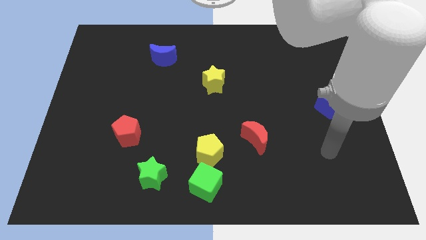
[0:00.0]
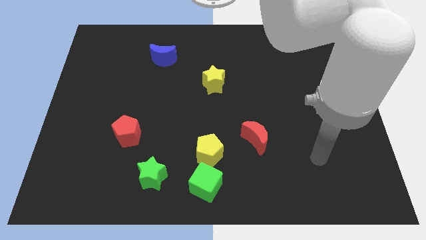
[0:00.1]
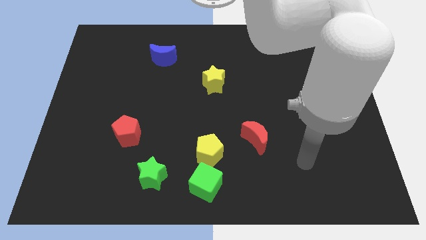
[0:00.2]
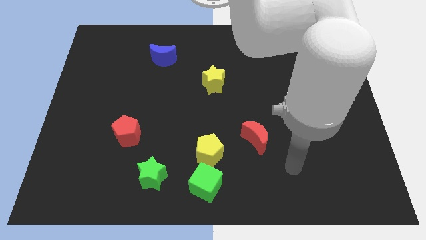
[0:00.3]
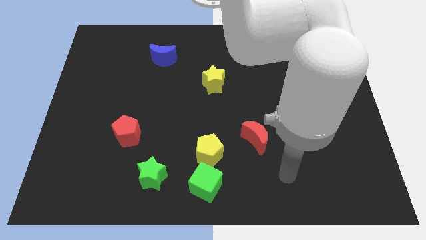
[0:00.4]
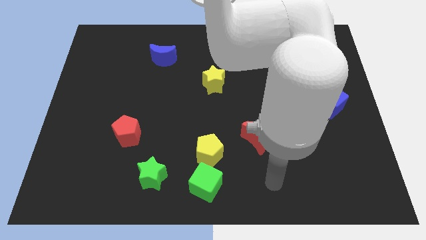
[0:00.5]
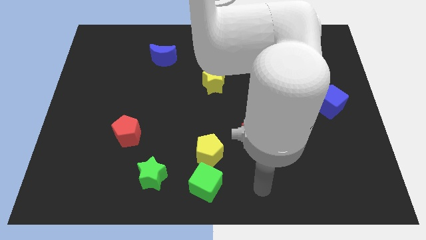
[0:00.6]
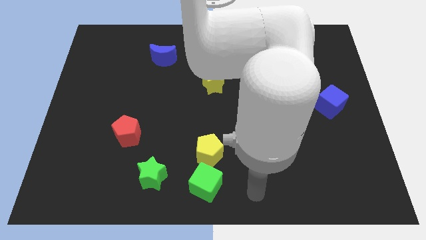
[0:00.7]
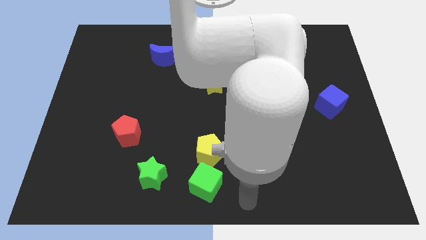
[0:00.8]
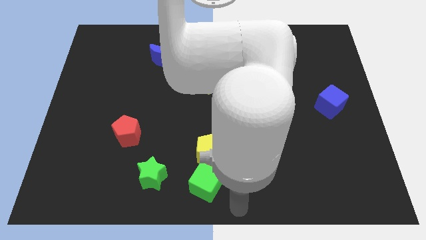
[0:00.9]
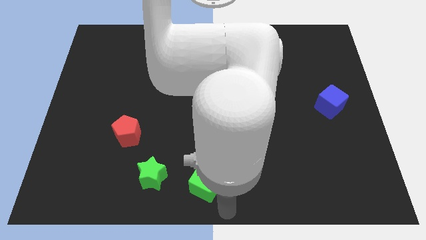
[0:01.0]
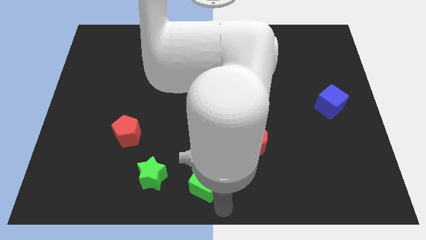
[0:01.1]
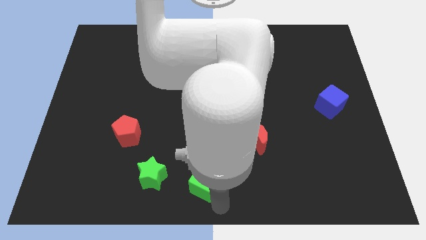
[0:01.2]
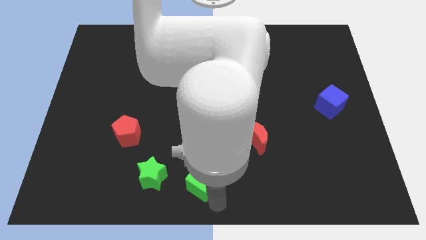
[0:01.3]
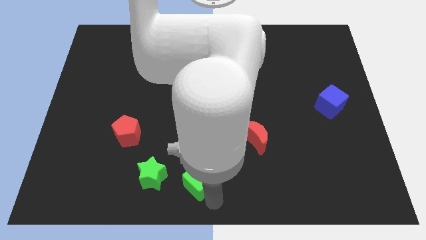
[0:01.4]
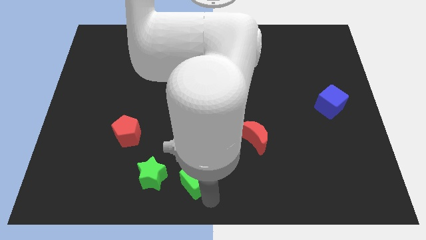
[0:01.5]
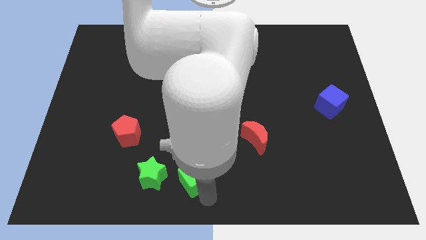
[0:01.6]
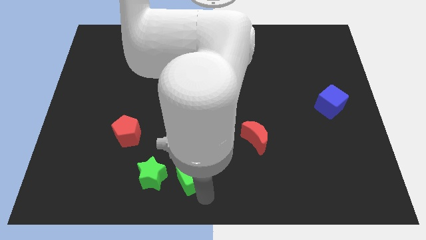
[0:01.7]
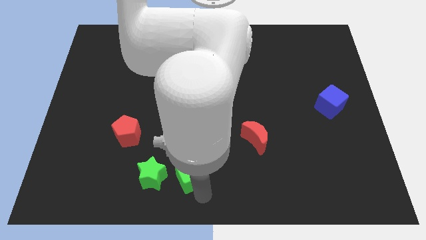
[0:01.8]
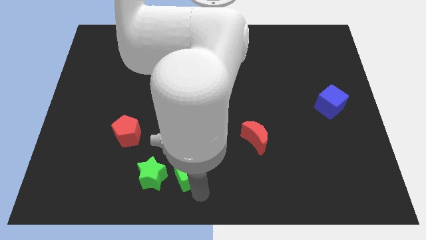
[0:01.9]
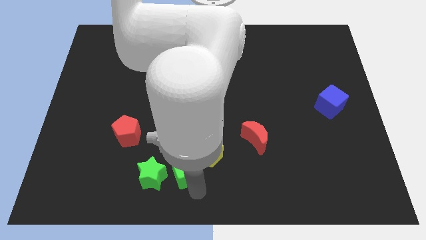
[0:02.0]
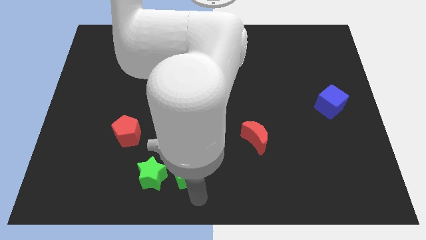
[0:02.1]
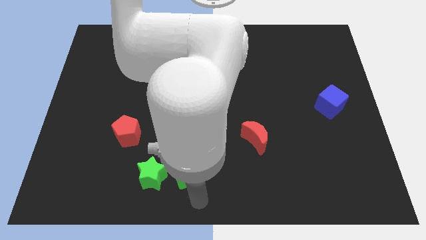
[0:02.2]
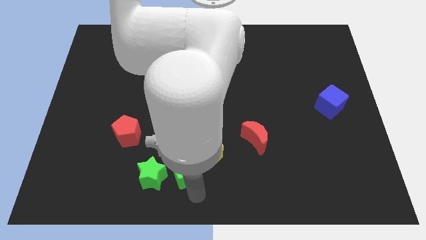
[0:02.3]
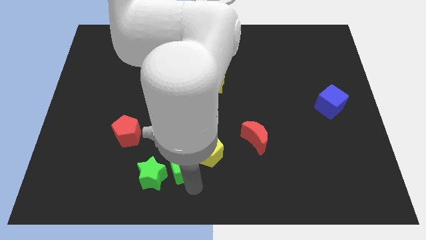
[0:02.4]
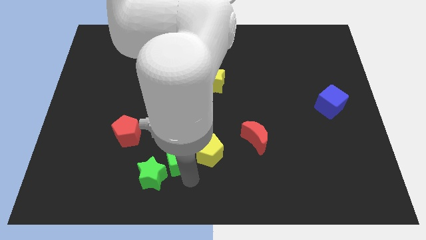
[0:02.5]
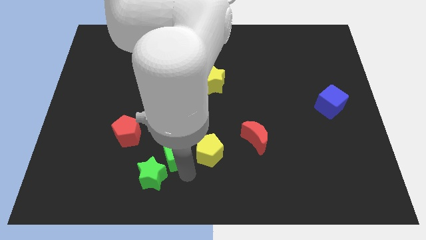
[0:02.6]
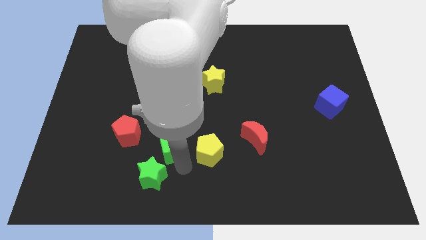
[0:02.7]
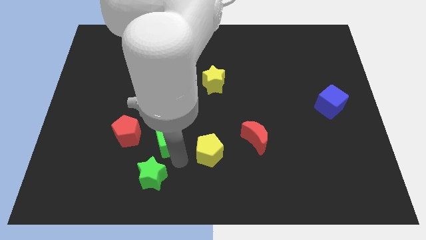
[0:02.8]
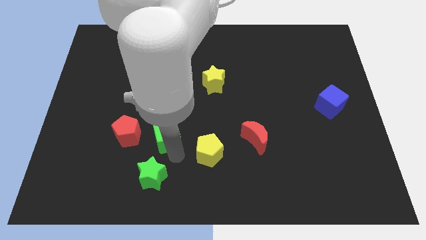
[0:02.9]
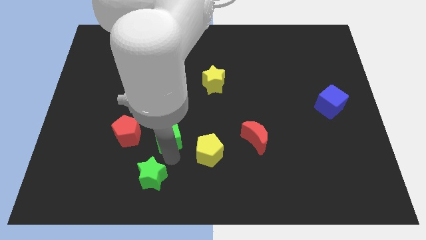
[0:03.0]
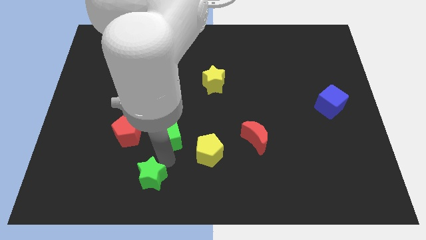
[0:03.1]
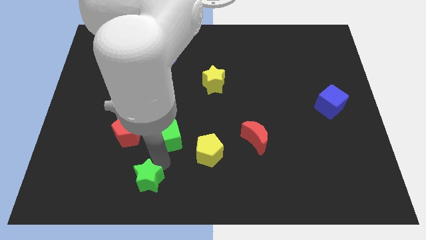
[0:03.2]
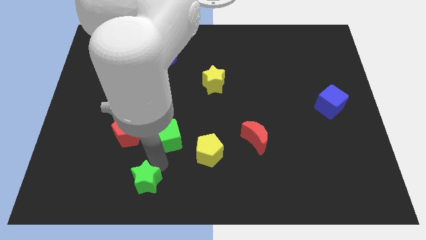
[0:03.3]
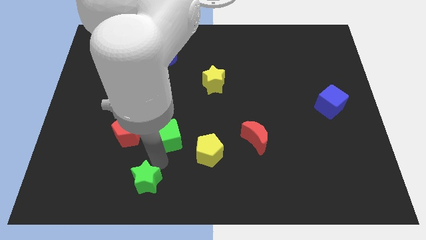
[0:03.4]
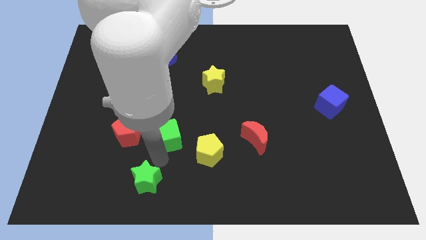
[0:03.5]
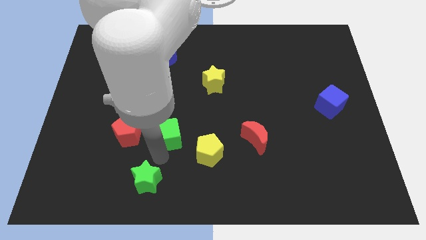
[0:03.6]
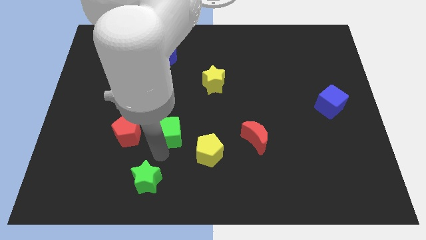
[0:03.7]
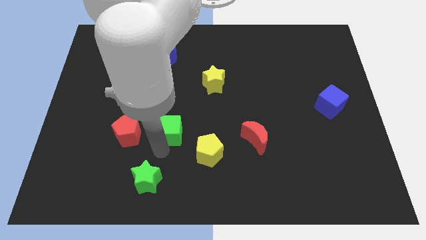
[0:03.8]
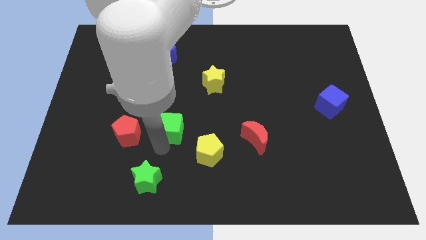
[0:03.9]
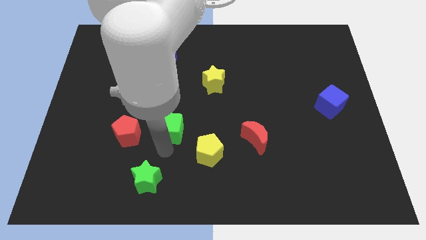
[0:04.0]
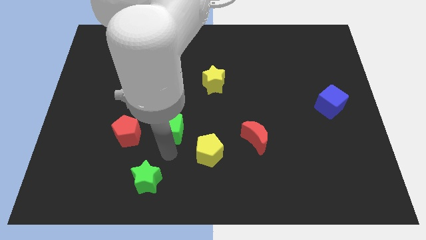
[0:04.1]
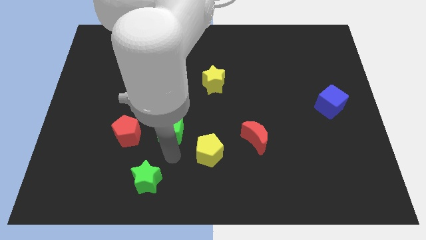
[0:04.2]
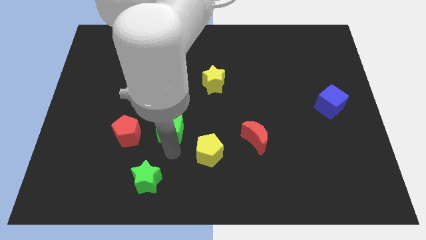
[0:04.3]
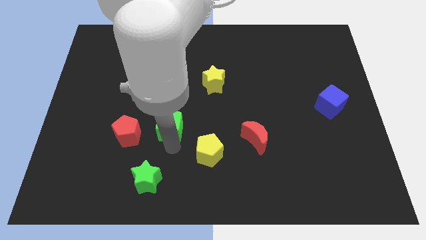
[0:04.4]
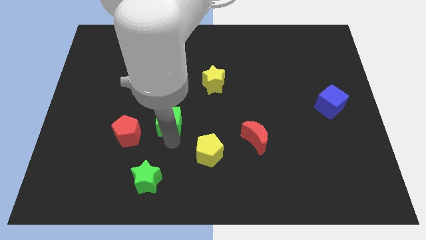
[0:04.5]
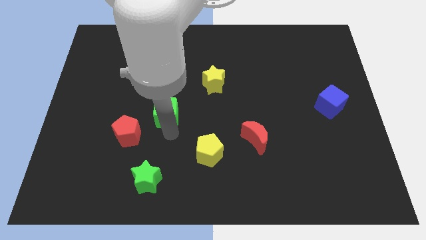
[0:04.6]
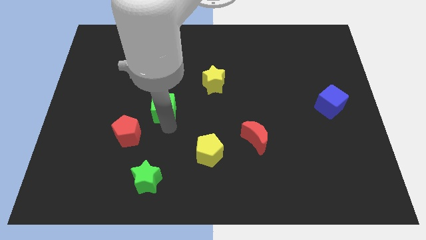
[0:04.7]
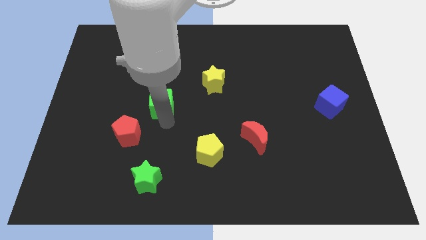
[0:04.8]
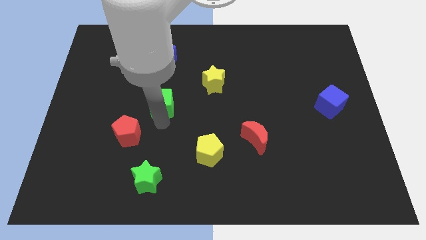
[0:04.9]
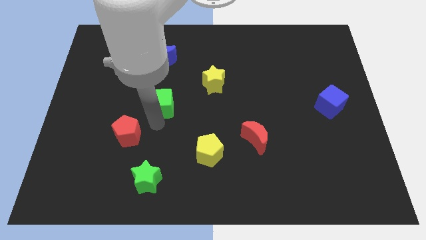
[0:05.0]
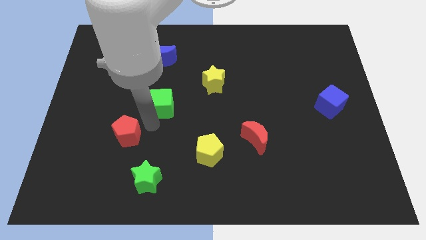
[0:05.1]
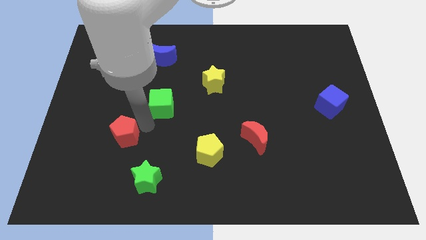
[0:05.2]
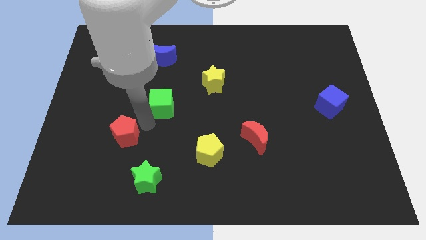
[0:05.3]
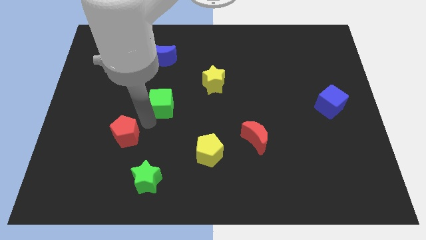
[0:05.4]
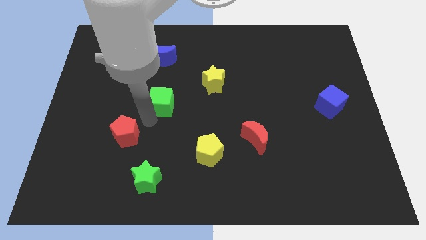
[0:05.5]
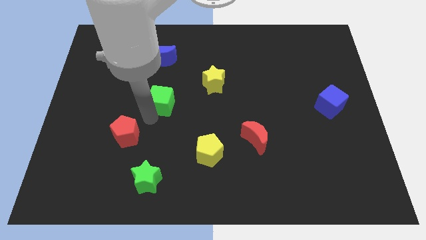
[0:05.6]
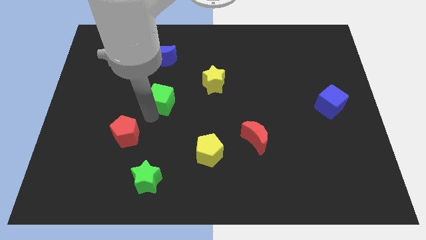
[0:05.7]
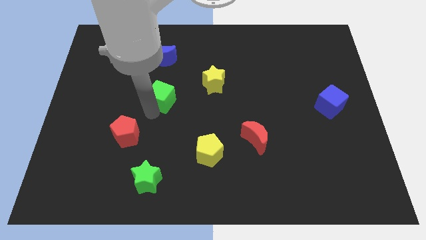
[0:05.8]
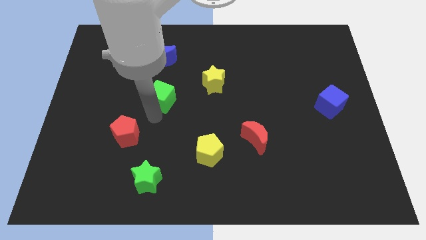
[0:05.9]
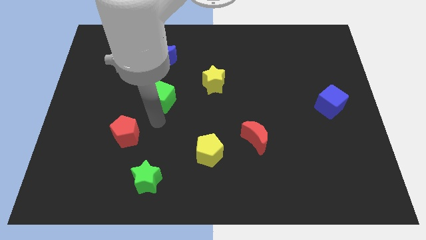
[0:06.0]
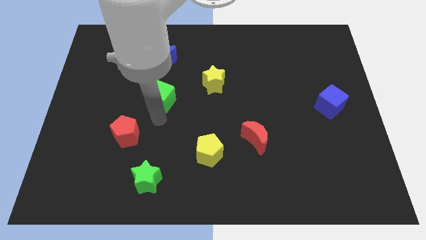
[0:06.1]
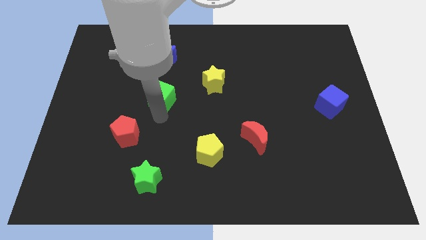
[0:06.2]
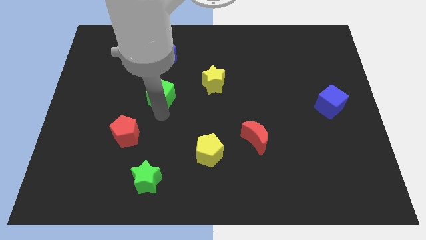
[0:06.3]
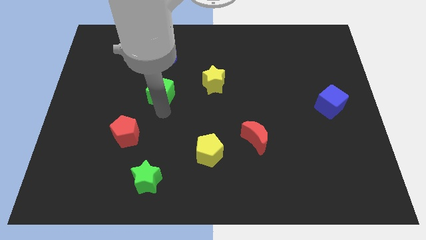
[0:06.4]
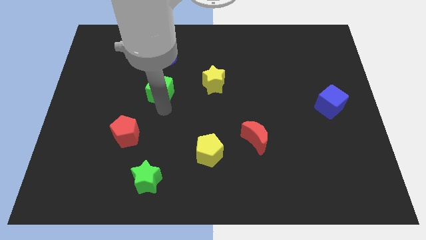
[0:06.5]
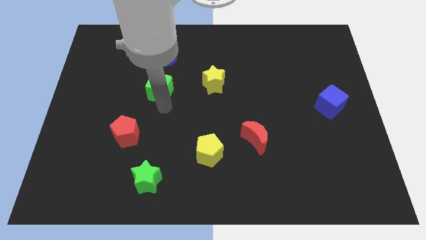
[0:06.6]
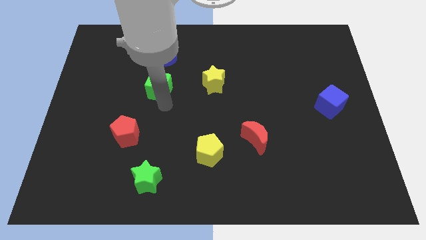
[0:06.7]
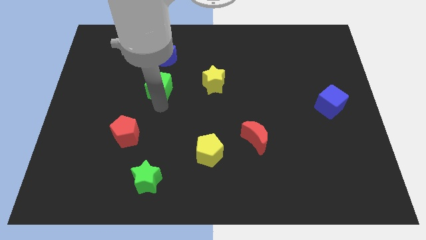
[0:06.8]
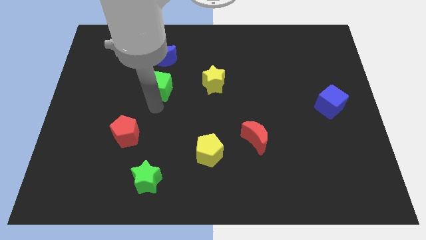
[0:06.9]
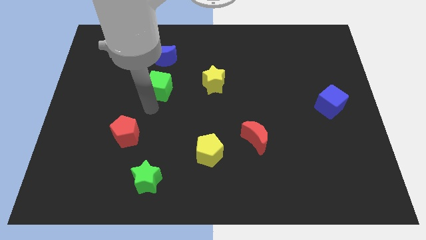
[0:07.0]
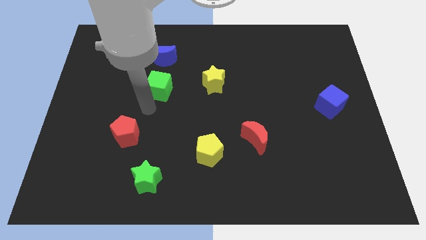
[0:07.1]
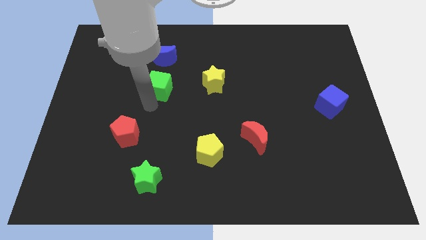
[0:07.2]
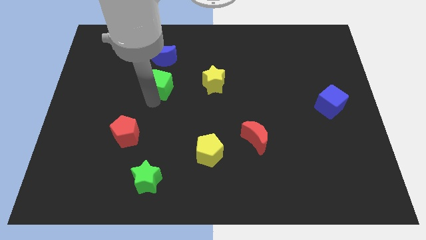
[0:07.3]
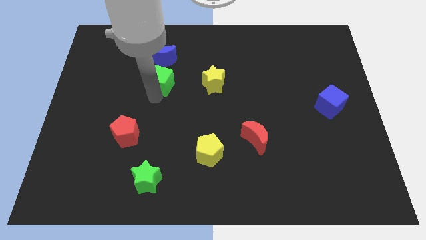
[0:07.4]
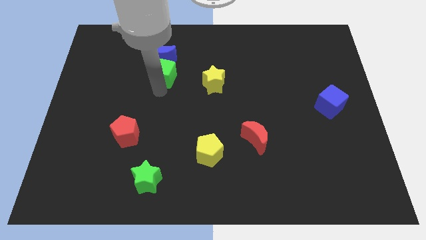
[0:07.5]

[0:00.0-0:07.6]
slide the green cube to the blue moon
